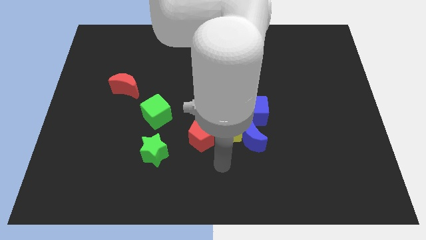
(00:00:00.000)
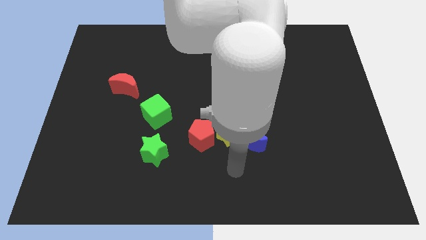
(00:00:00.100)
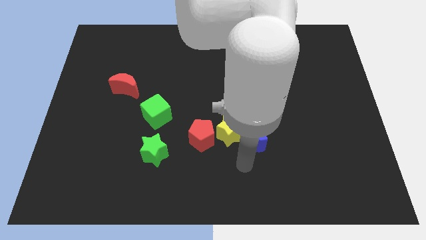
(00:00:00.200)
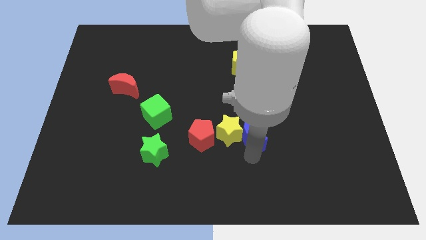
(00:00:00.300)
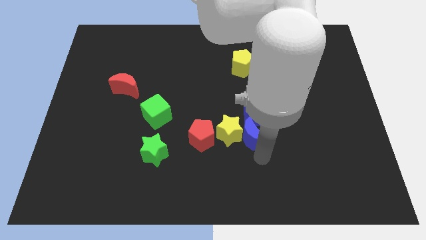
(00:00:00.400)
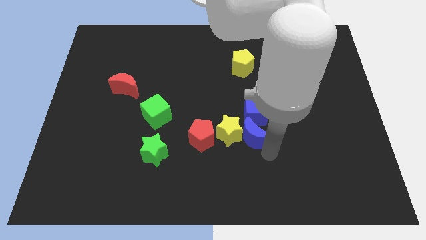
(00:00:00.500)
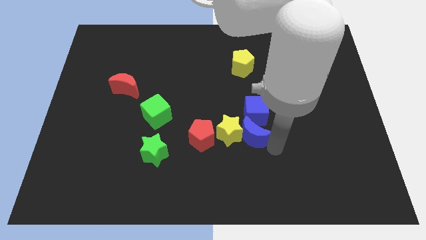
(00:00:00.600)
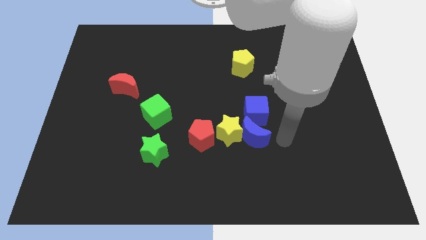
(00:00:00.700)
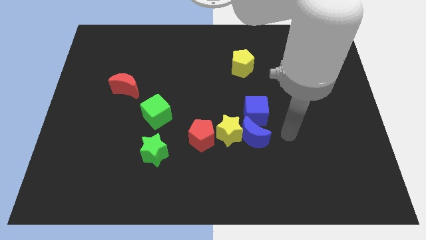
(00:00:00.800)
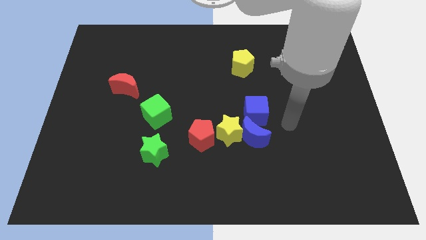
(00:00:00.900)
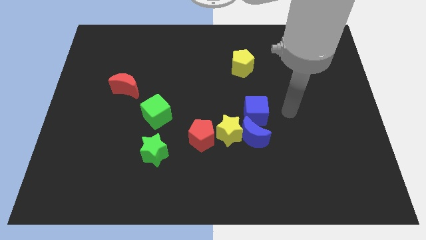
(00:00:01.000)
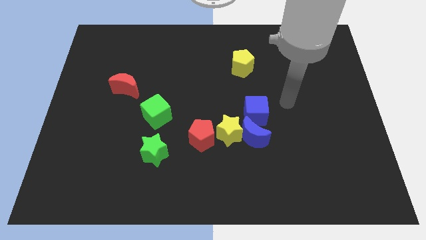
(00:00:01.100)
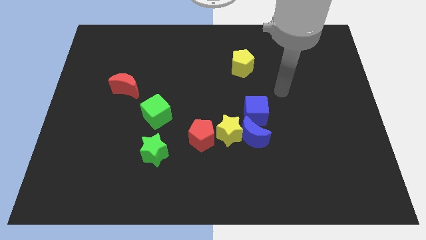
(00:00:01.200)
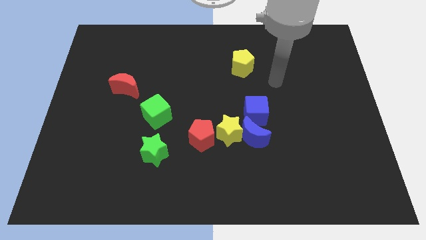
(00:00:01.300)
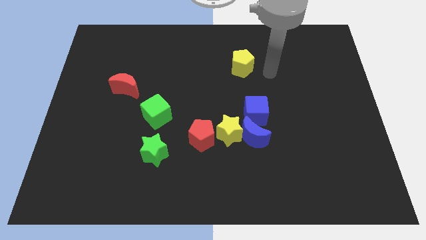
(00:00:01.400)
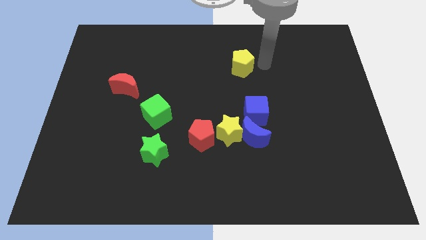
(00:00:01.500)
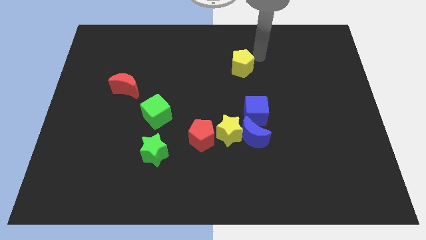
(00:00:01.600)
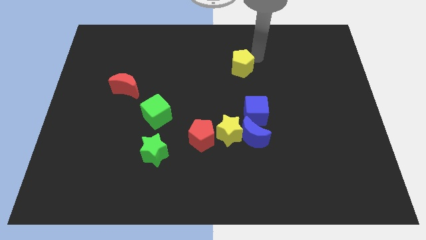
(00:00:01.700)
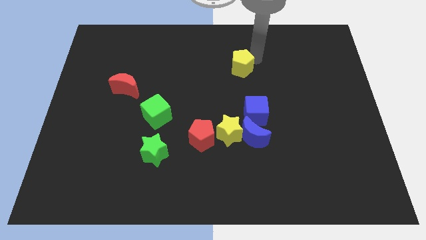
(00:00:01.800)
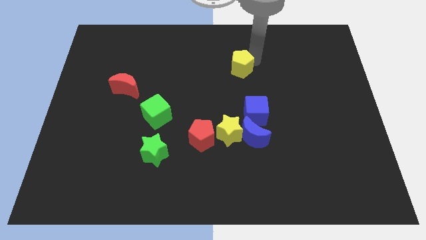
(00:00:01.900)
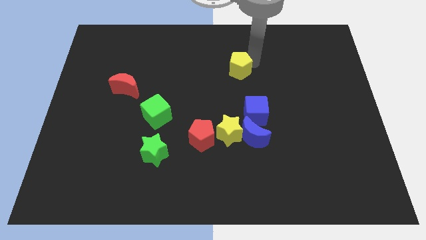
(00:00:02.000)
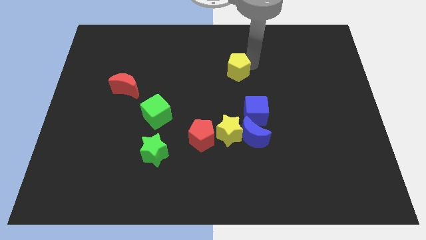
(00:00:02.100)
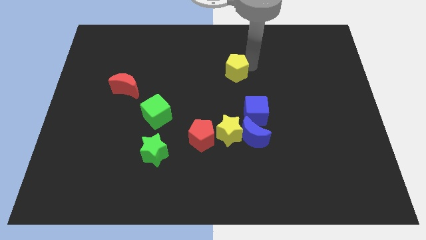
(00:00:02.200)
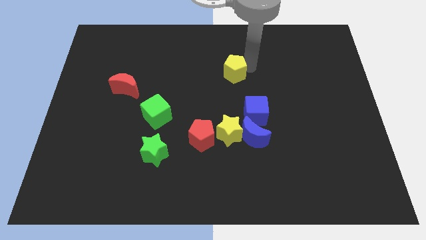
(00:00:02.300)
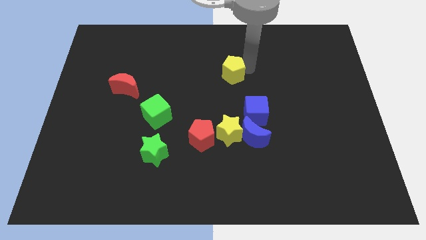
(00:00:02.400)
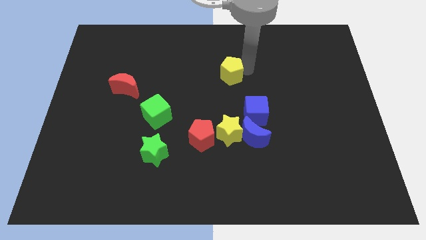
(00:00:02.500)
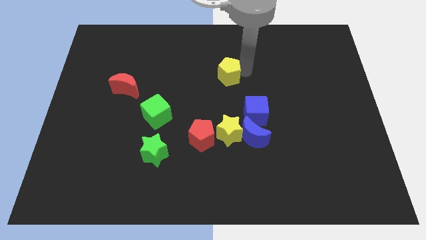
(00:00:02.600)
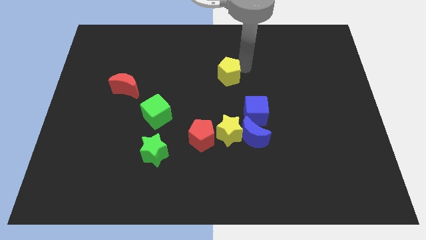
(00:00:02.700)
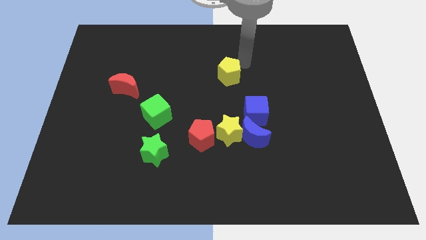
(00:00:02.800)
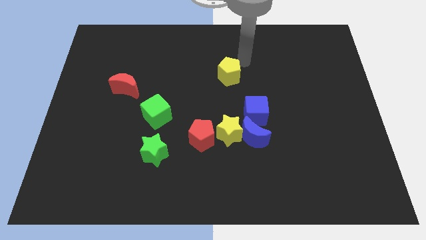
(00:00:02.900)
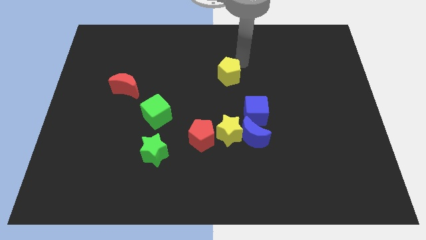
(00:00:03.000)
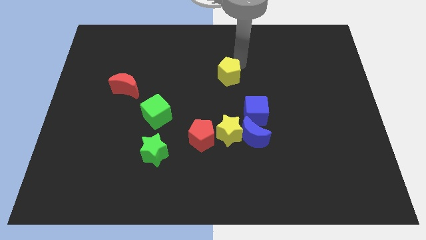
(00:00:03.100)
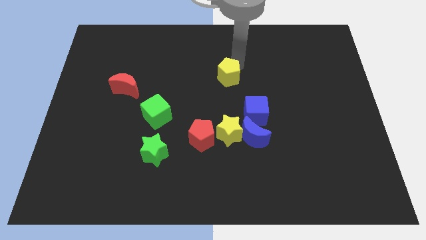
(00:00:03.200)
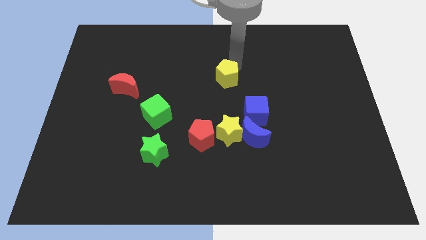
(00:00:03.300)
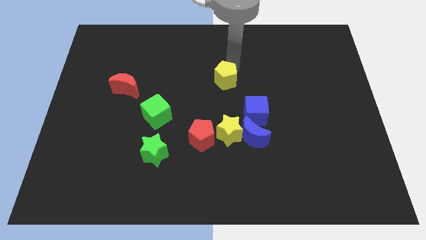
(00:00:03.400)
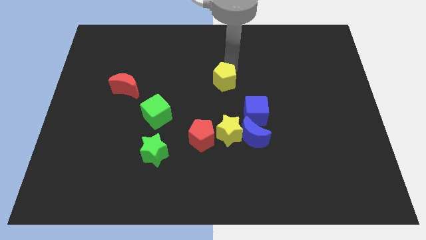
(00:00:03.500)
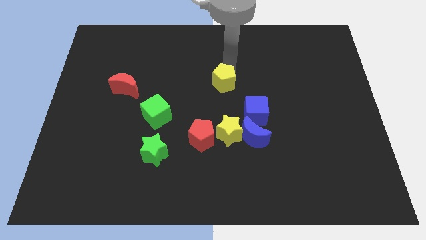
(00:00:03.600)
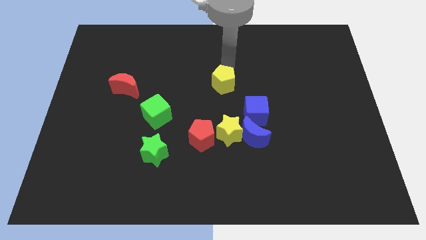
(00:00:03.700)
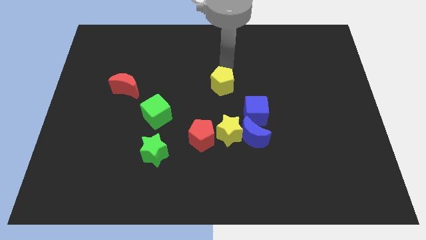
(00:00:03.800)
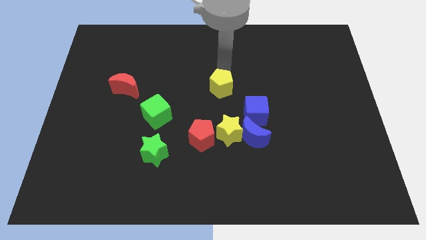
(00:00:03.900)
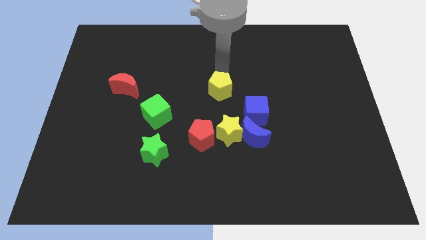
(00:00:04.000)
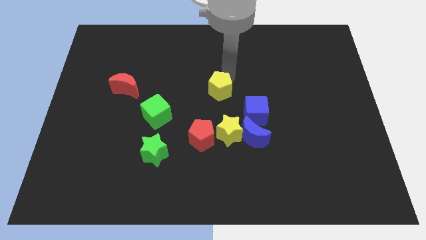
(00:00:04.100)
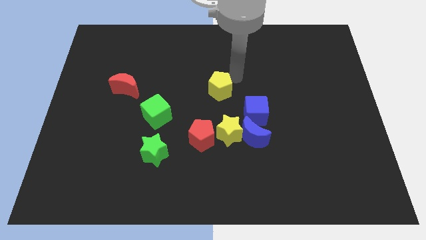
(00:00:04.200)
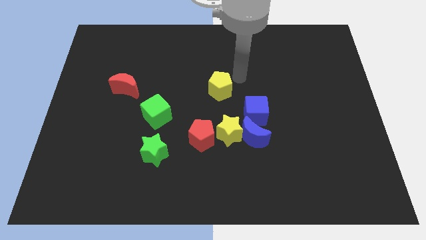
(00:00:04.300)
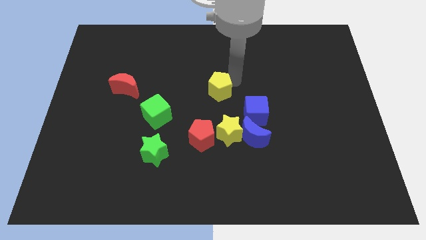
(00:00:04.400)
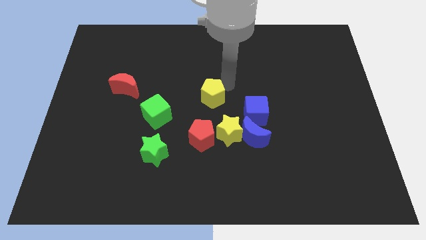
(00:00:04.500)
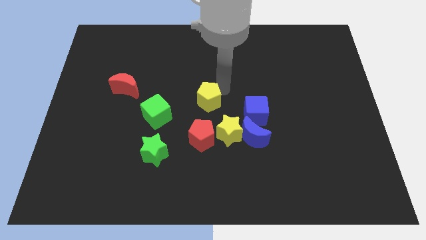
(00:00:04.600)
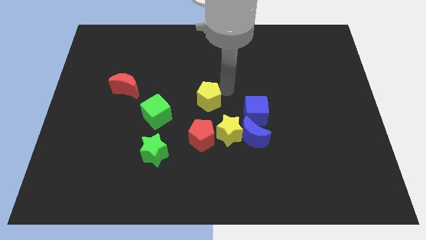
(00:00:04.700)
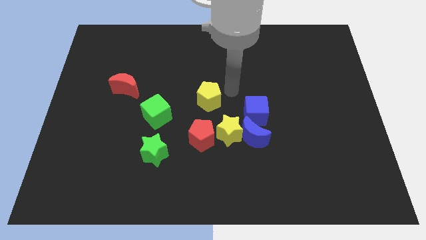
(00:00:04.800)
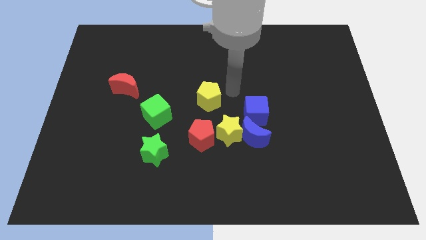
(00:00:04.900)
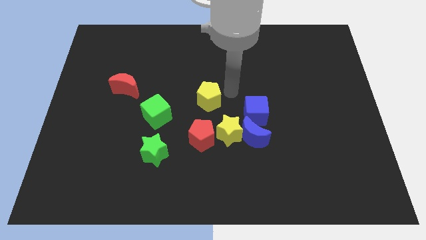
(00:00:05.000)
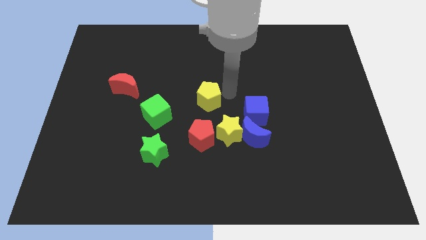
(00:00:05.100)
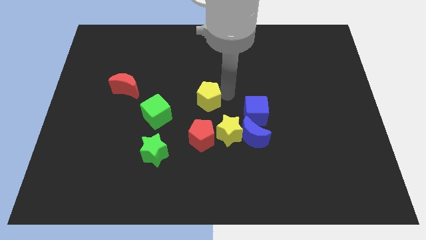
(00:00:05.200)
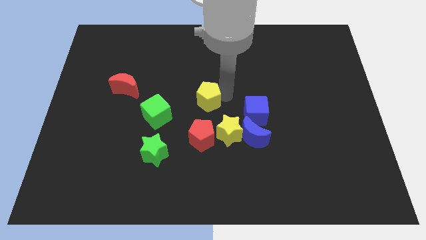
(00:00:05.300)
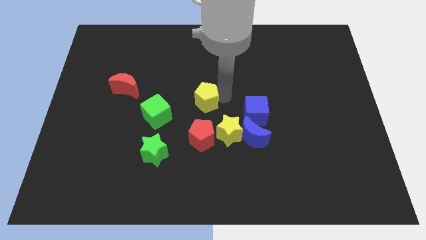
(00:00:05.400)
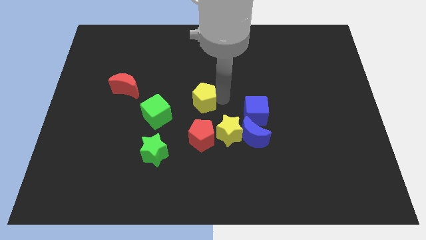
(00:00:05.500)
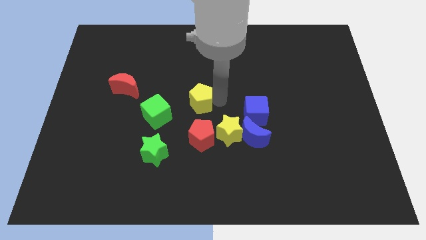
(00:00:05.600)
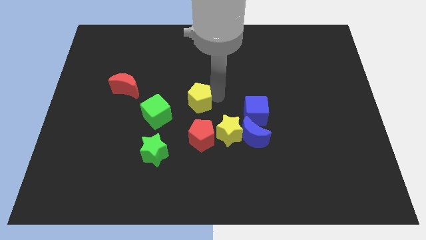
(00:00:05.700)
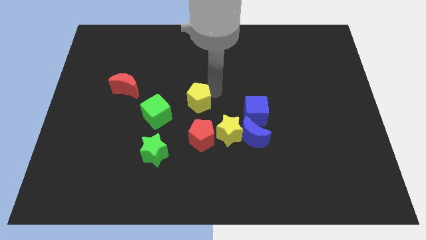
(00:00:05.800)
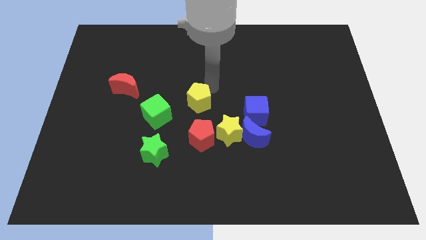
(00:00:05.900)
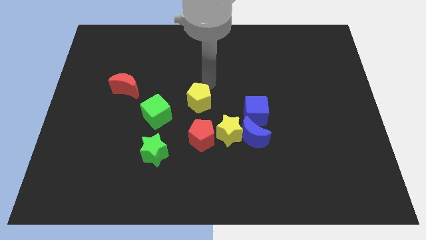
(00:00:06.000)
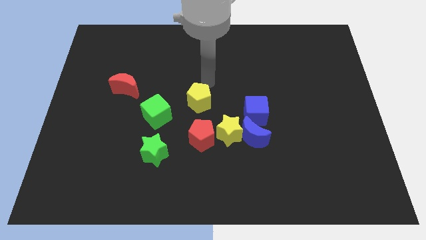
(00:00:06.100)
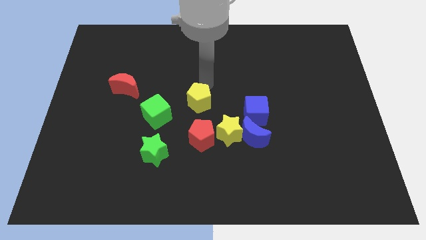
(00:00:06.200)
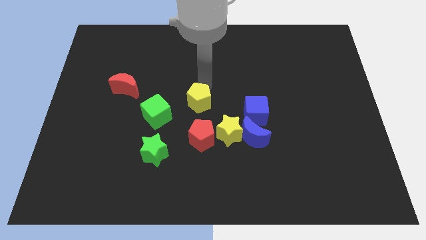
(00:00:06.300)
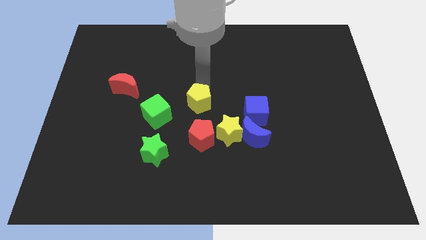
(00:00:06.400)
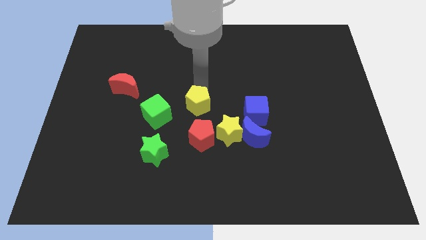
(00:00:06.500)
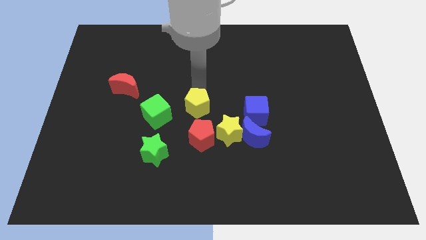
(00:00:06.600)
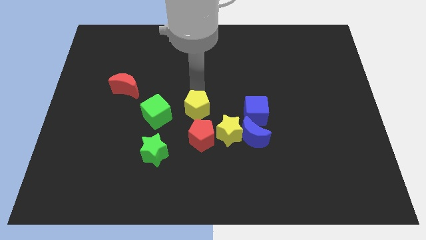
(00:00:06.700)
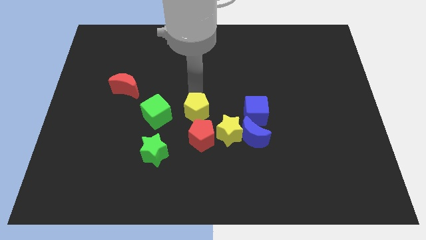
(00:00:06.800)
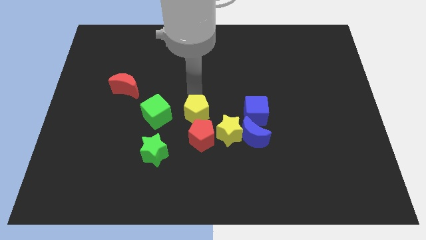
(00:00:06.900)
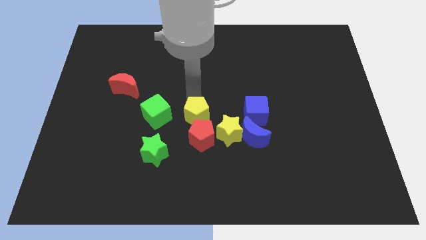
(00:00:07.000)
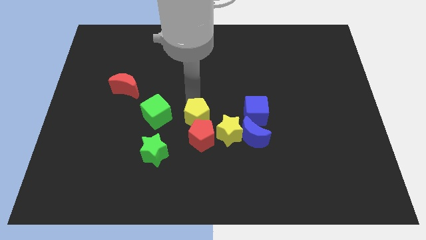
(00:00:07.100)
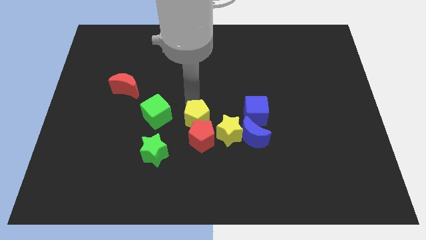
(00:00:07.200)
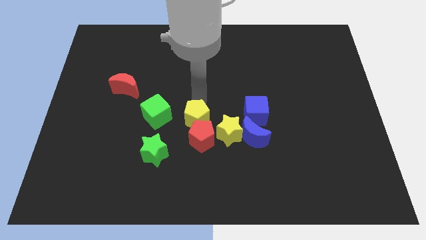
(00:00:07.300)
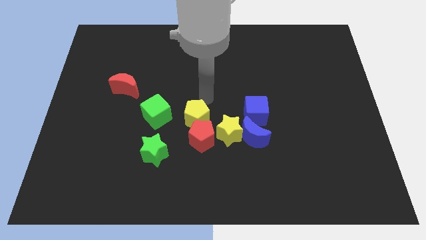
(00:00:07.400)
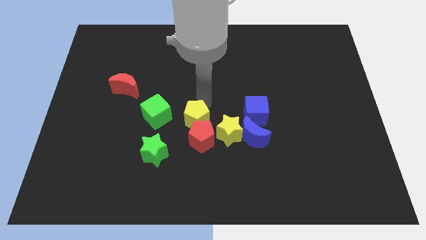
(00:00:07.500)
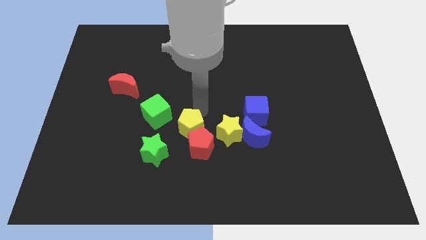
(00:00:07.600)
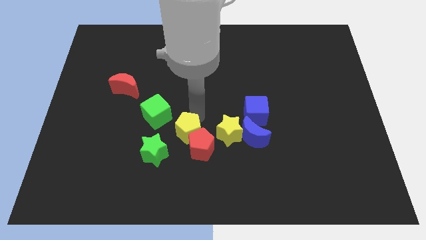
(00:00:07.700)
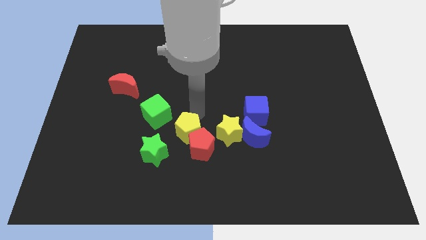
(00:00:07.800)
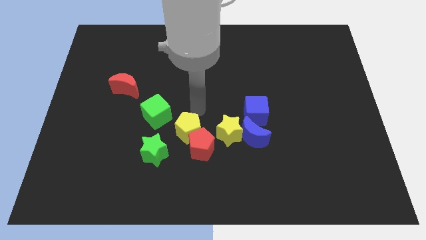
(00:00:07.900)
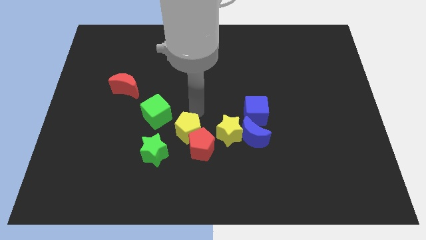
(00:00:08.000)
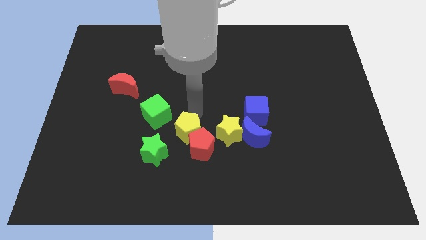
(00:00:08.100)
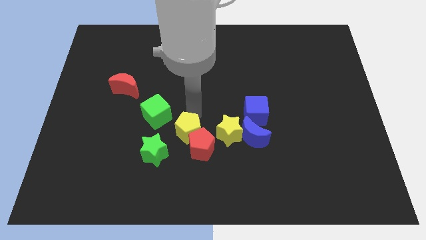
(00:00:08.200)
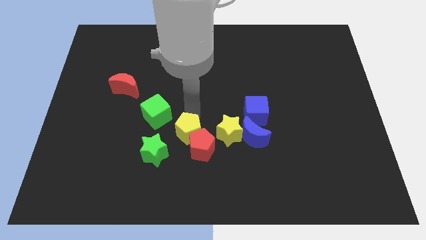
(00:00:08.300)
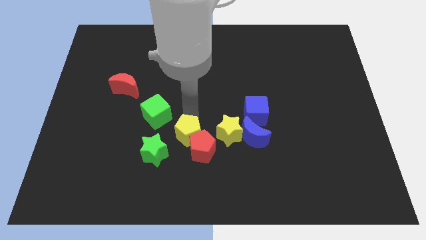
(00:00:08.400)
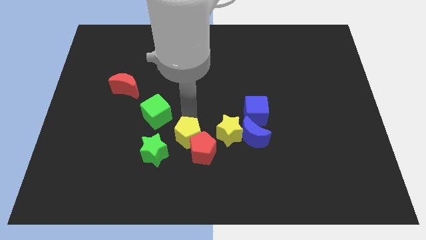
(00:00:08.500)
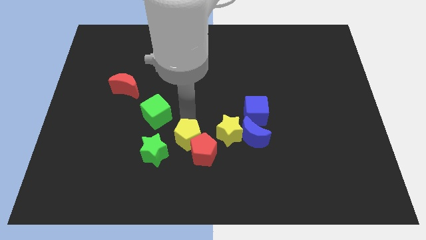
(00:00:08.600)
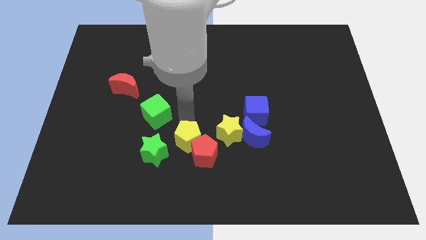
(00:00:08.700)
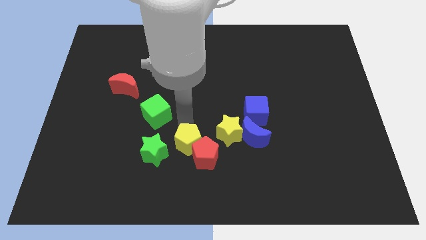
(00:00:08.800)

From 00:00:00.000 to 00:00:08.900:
slide the yellow pentagon diagonally down and to the left of the yellow star
